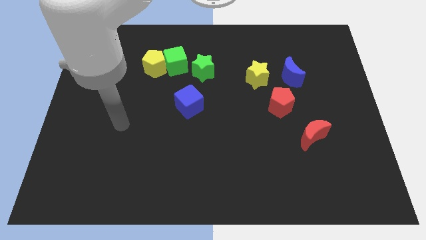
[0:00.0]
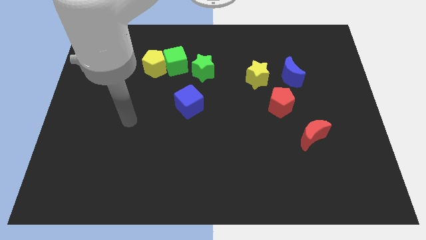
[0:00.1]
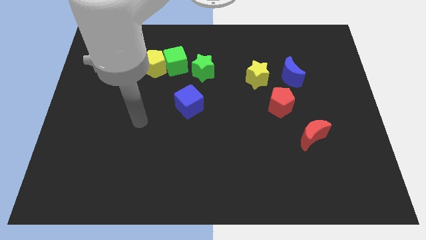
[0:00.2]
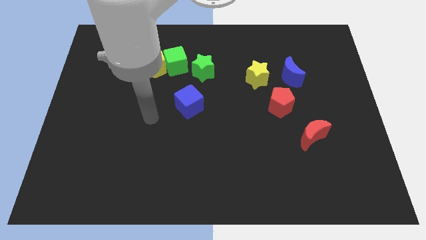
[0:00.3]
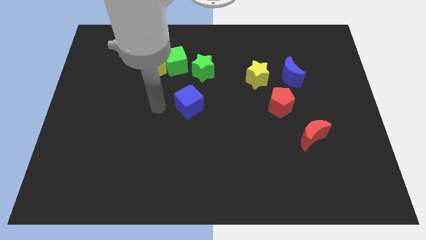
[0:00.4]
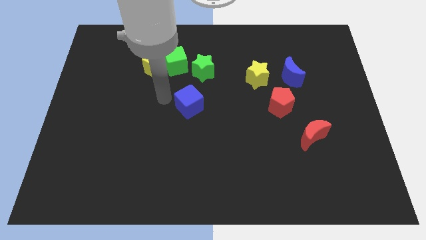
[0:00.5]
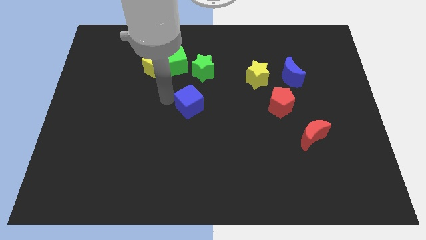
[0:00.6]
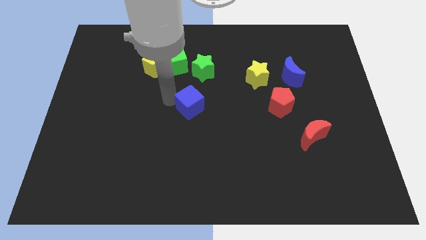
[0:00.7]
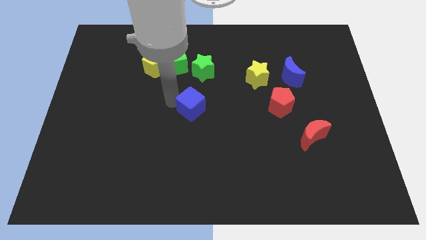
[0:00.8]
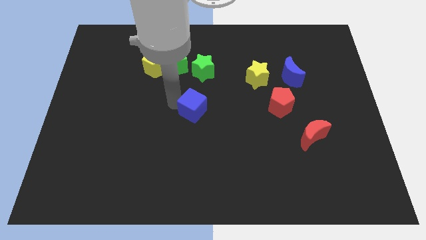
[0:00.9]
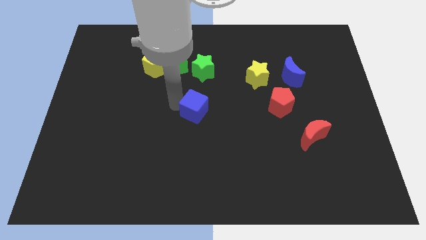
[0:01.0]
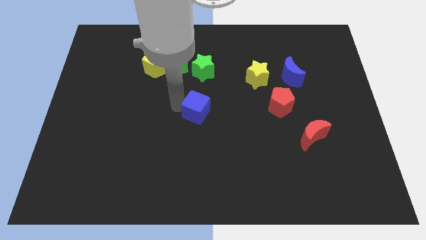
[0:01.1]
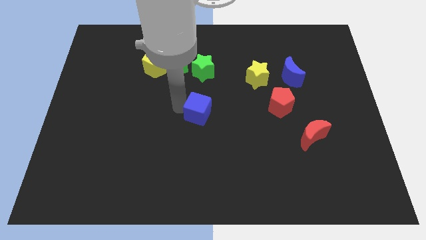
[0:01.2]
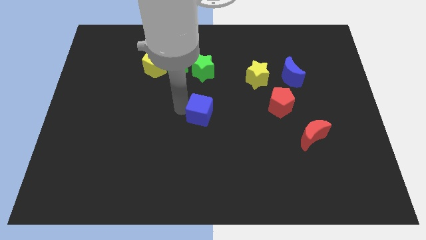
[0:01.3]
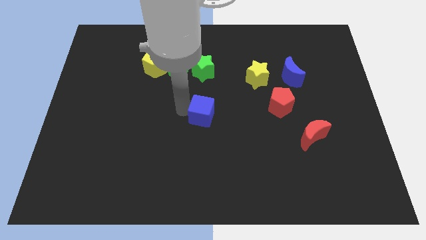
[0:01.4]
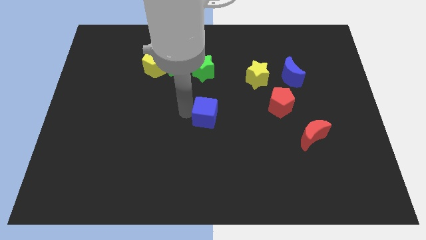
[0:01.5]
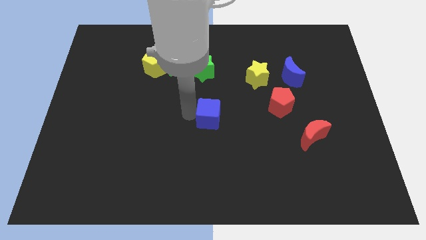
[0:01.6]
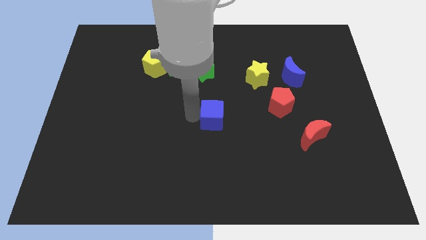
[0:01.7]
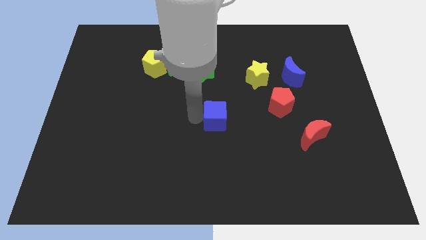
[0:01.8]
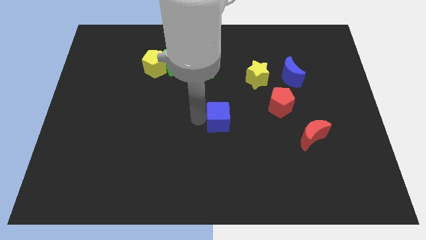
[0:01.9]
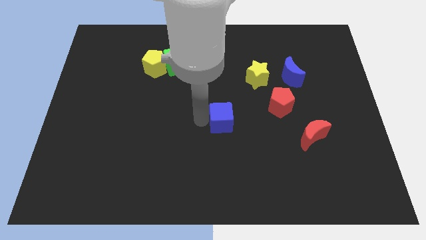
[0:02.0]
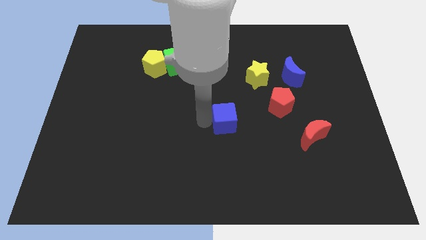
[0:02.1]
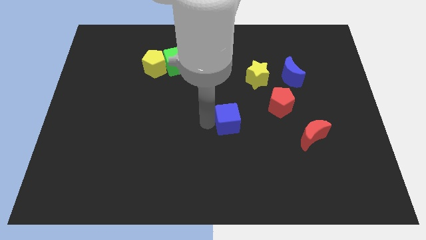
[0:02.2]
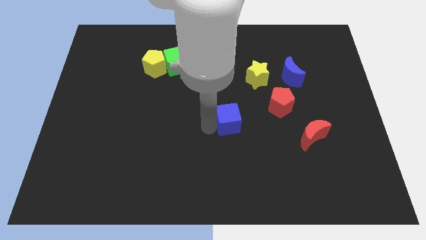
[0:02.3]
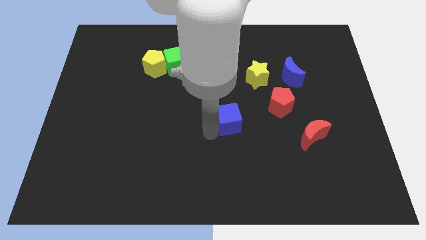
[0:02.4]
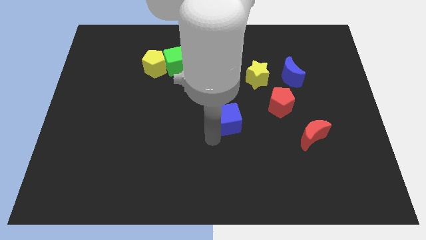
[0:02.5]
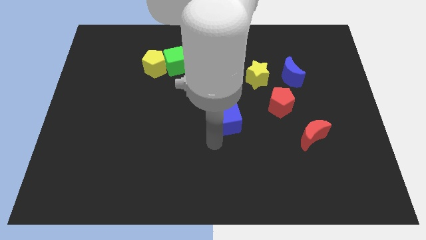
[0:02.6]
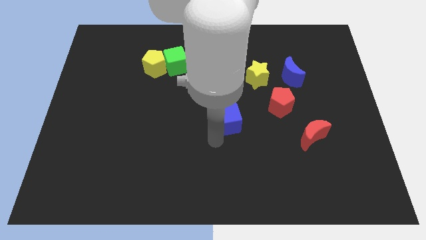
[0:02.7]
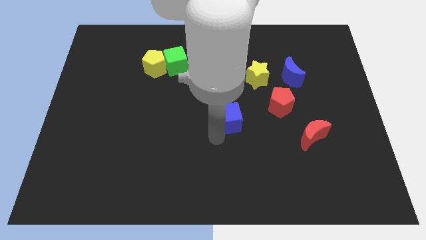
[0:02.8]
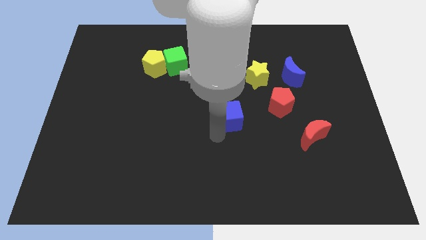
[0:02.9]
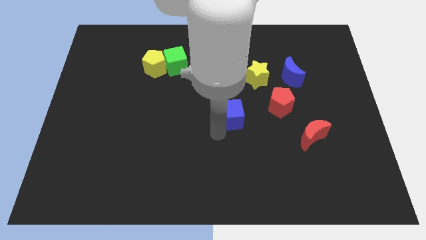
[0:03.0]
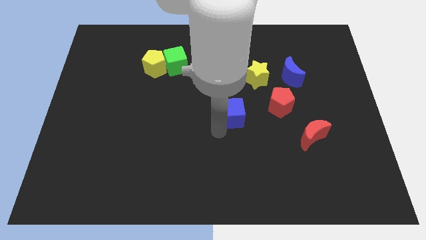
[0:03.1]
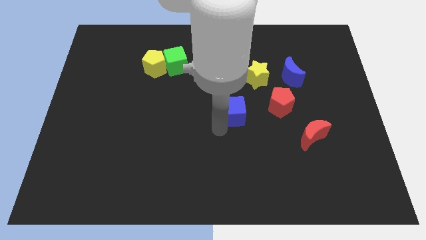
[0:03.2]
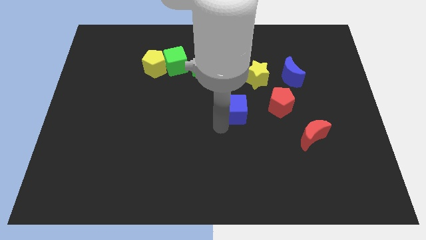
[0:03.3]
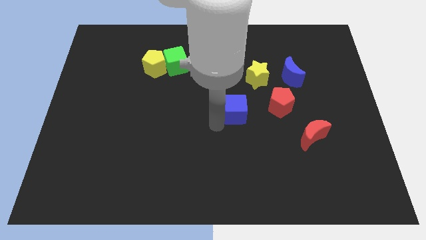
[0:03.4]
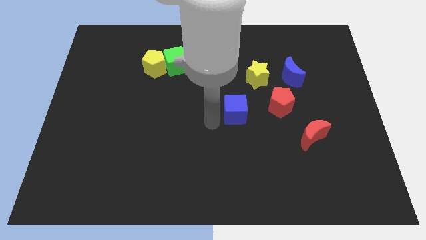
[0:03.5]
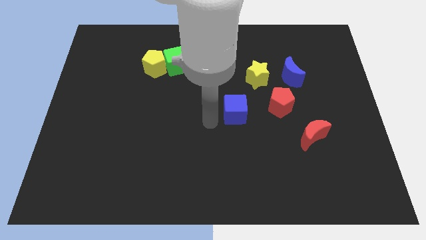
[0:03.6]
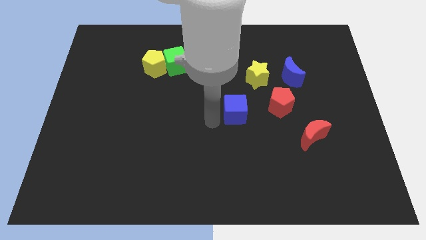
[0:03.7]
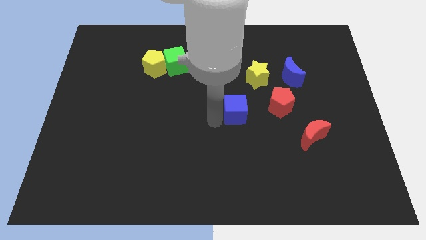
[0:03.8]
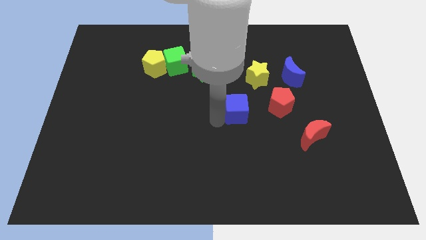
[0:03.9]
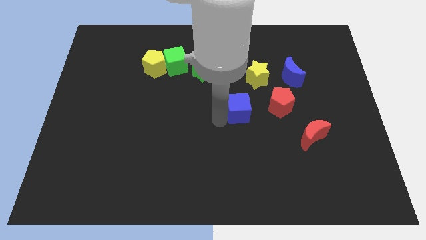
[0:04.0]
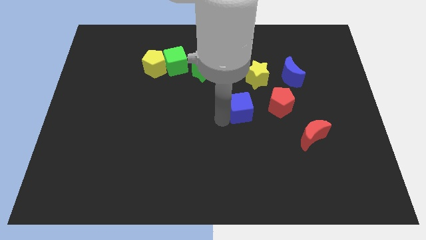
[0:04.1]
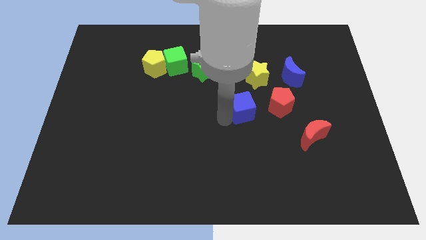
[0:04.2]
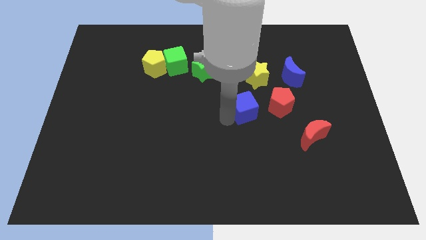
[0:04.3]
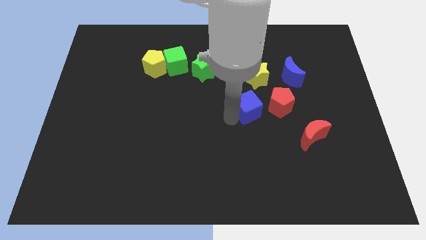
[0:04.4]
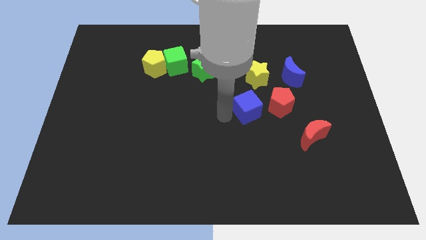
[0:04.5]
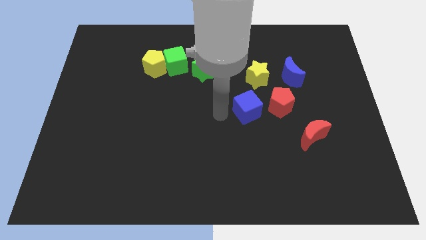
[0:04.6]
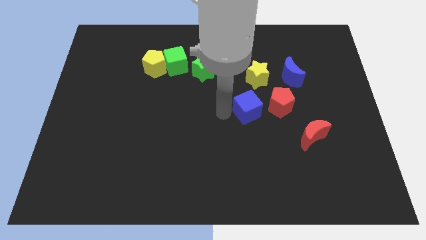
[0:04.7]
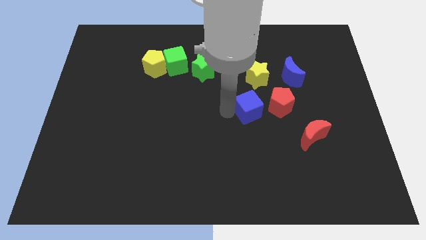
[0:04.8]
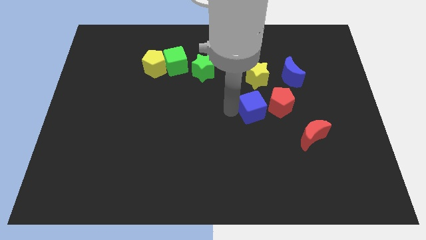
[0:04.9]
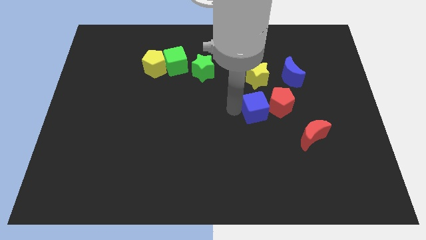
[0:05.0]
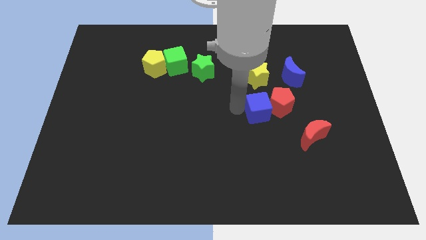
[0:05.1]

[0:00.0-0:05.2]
put the blue cube to the red pentagon

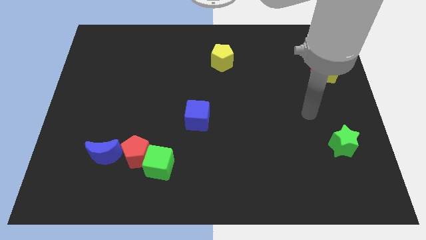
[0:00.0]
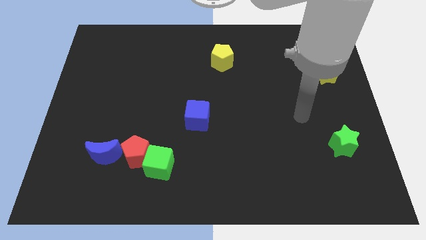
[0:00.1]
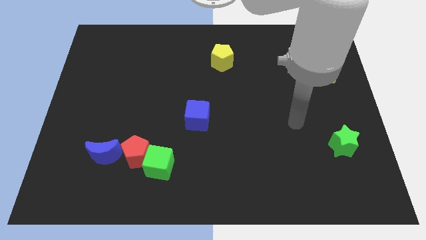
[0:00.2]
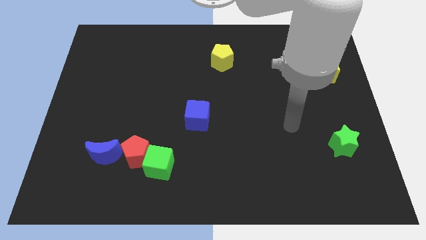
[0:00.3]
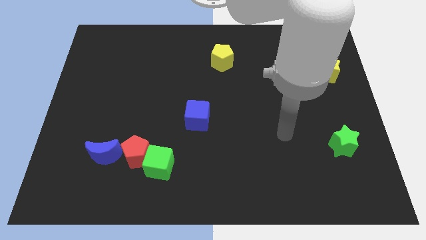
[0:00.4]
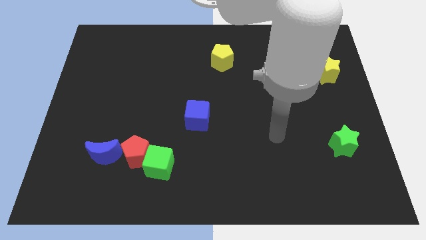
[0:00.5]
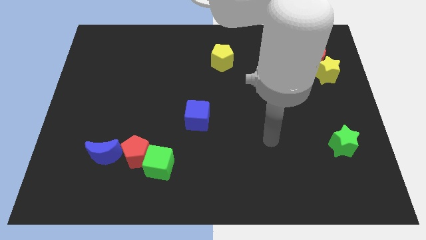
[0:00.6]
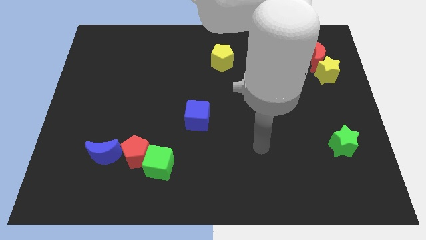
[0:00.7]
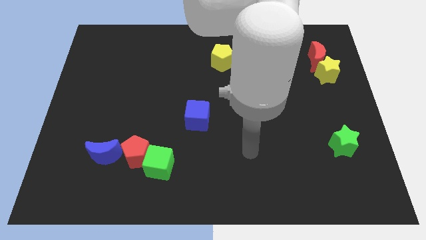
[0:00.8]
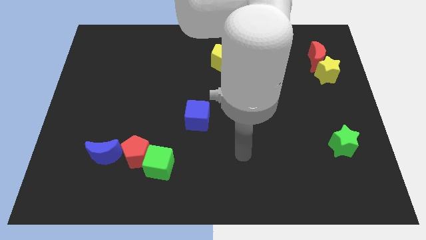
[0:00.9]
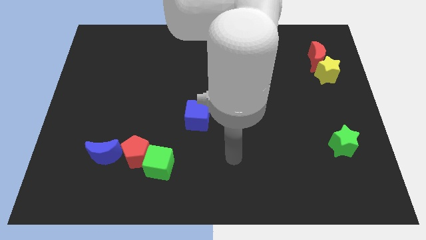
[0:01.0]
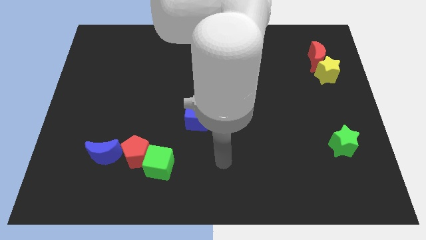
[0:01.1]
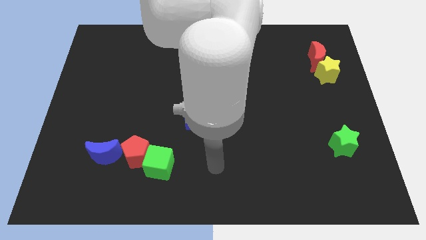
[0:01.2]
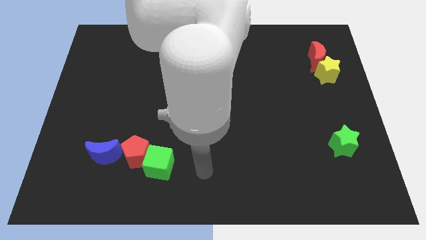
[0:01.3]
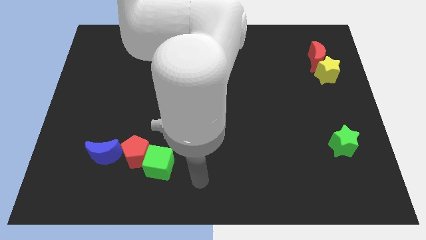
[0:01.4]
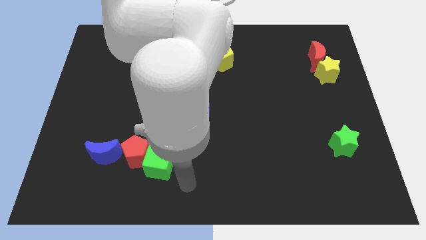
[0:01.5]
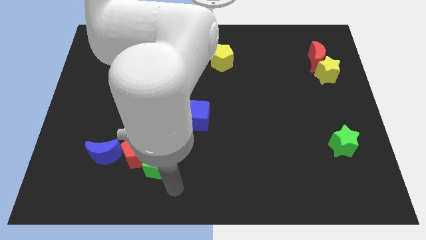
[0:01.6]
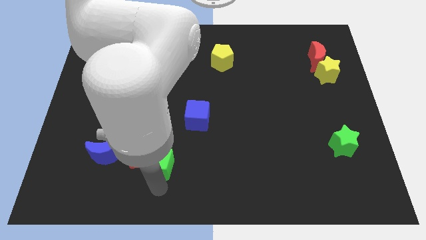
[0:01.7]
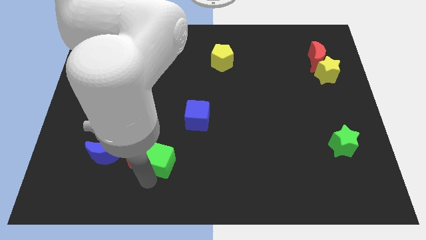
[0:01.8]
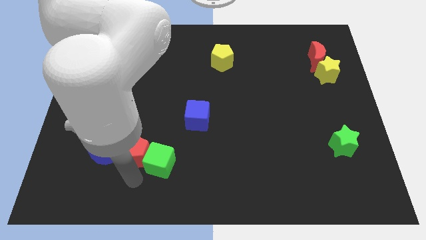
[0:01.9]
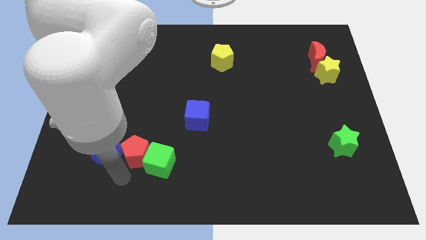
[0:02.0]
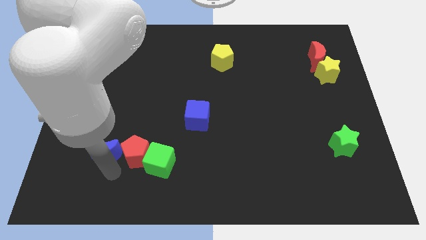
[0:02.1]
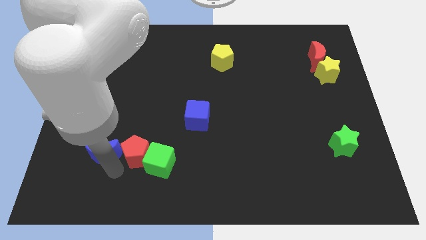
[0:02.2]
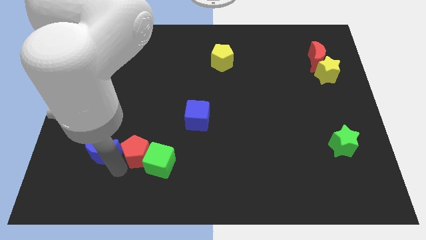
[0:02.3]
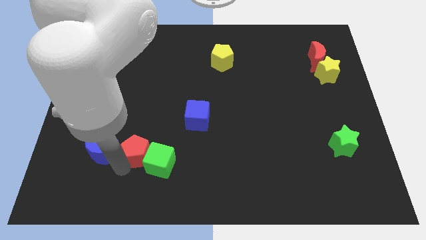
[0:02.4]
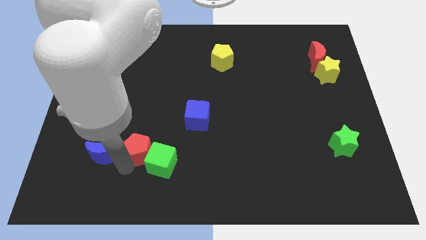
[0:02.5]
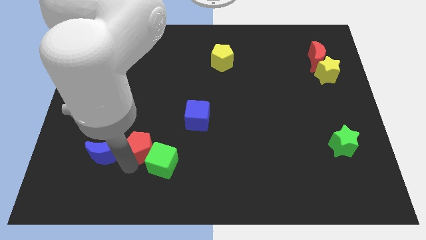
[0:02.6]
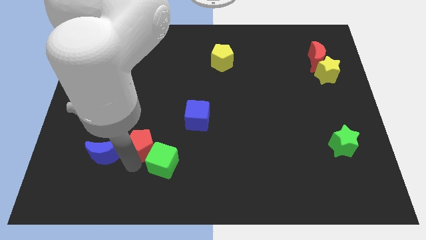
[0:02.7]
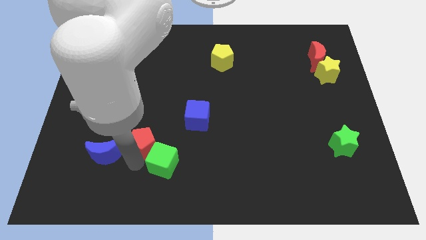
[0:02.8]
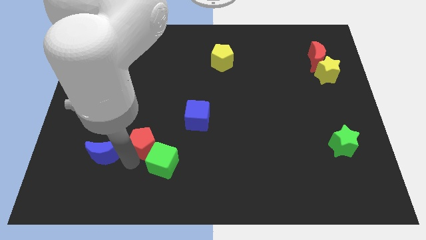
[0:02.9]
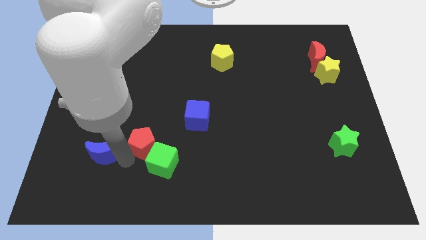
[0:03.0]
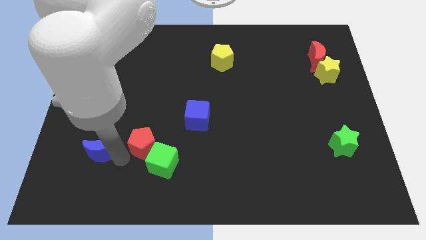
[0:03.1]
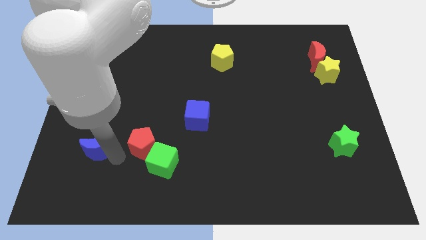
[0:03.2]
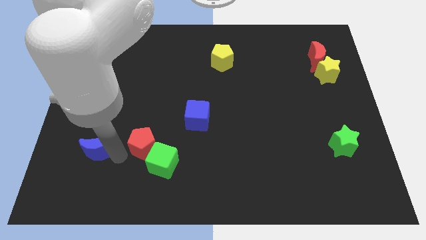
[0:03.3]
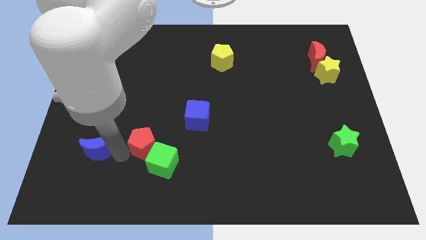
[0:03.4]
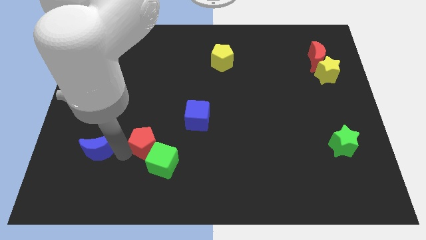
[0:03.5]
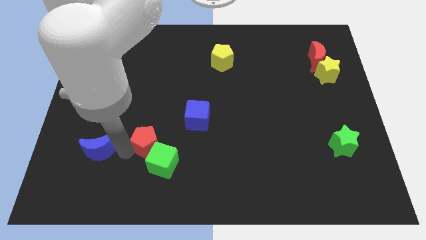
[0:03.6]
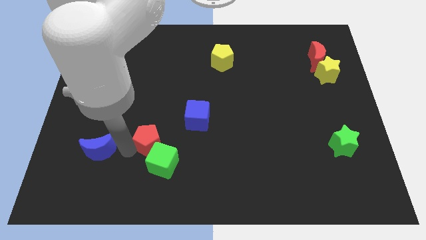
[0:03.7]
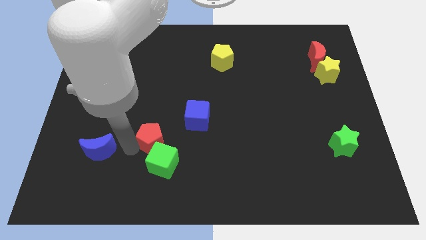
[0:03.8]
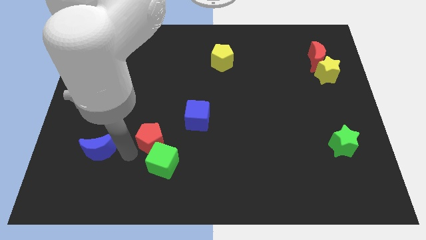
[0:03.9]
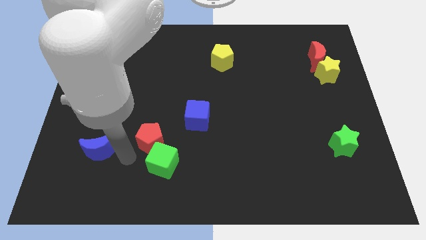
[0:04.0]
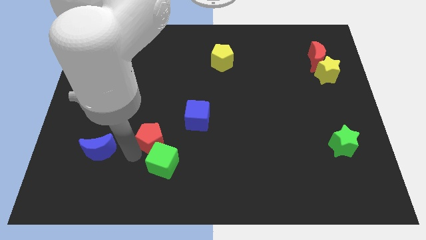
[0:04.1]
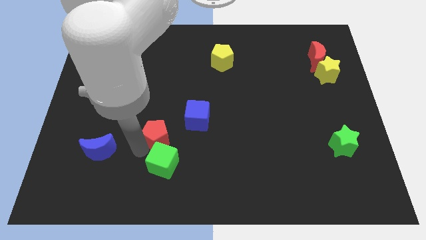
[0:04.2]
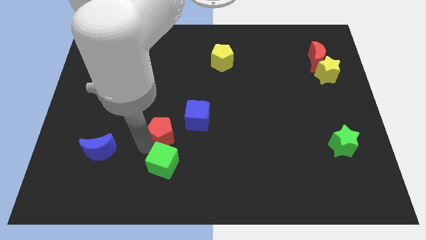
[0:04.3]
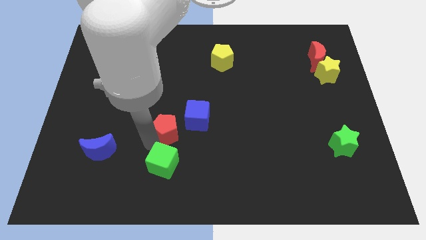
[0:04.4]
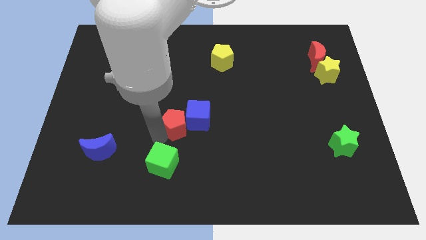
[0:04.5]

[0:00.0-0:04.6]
put the red pentagon to the blue cube
